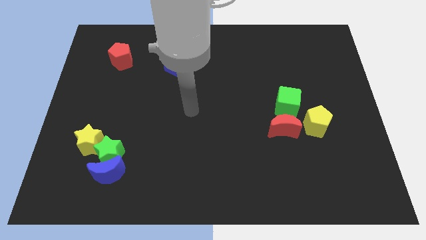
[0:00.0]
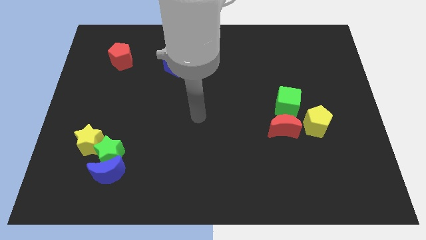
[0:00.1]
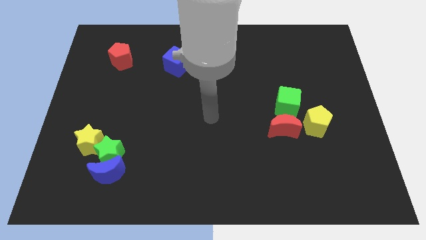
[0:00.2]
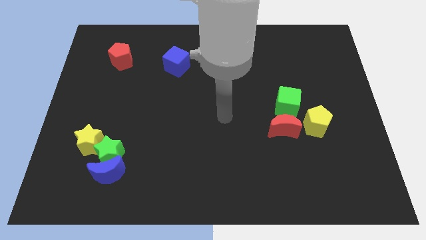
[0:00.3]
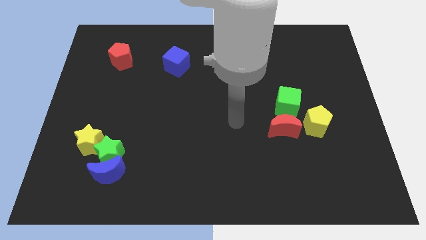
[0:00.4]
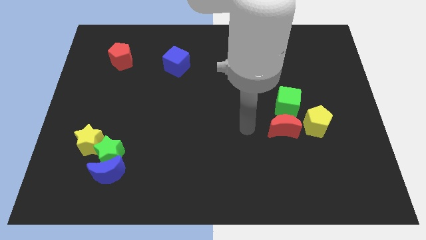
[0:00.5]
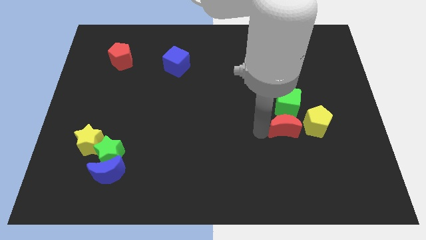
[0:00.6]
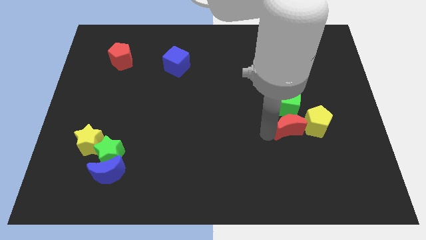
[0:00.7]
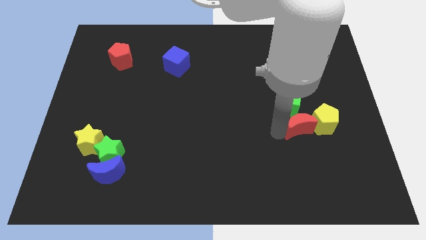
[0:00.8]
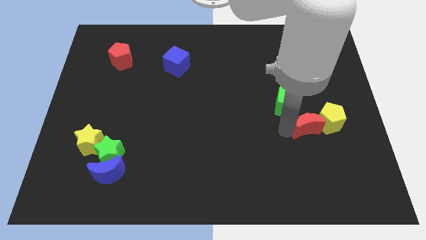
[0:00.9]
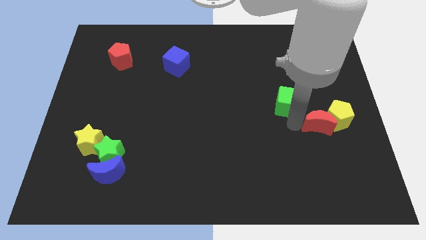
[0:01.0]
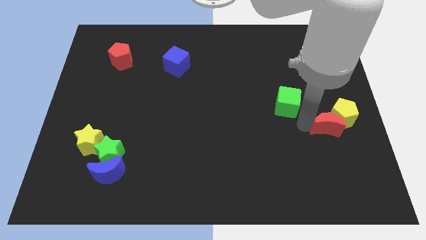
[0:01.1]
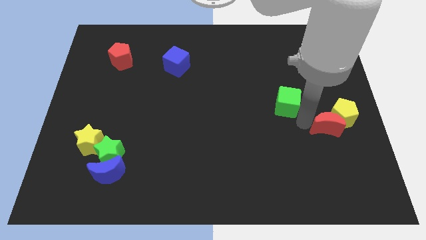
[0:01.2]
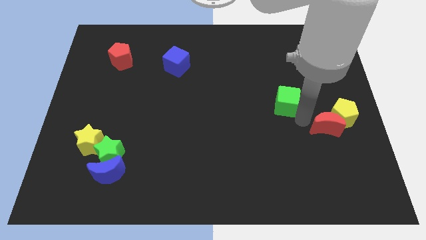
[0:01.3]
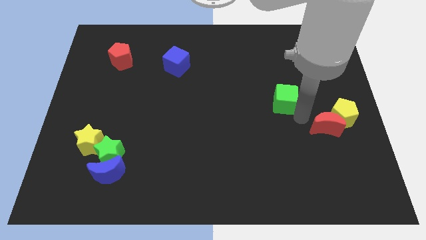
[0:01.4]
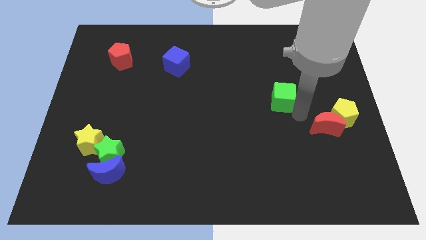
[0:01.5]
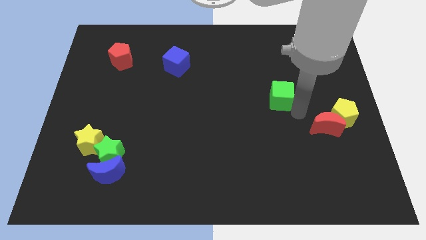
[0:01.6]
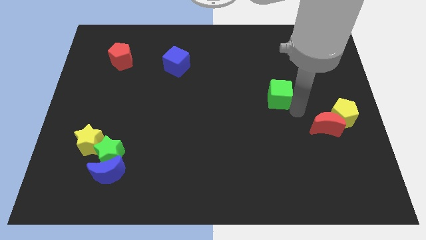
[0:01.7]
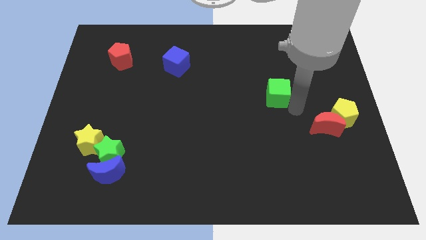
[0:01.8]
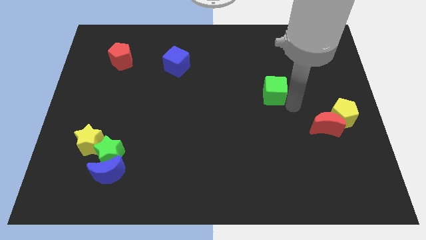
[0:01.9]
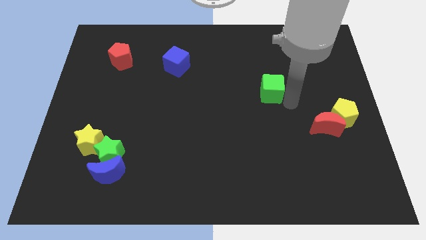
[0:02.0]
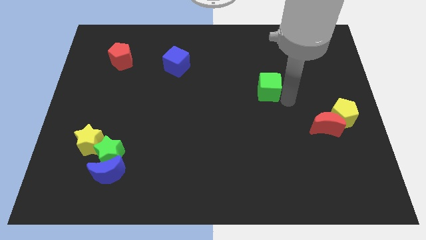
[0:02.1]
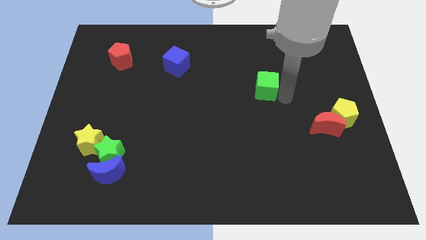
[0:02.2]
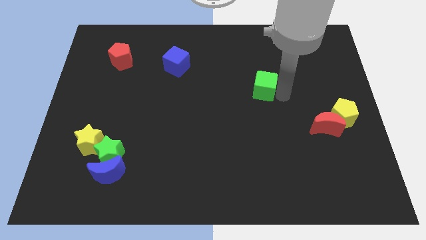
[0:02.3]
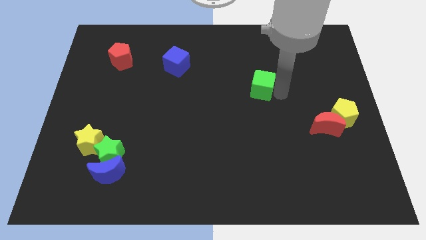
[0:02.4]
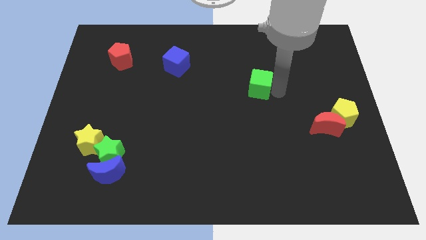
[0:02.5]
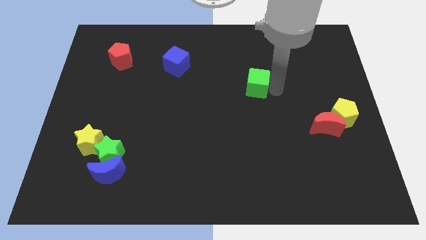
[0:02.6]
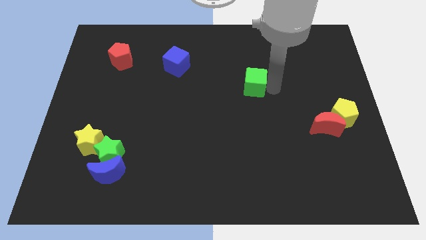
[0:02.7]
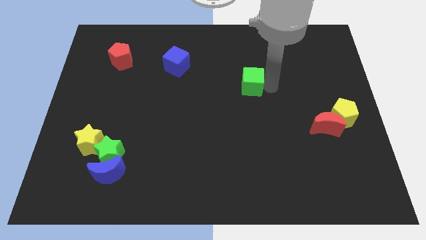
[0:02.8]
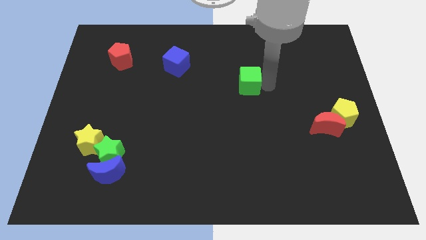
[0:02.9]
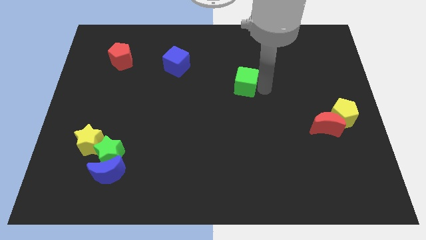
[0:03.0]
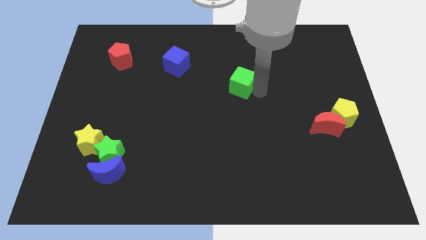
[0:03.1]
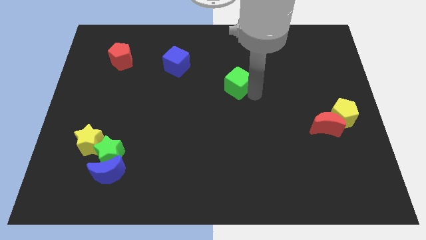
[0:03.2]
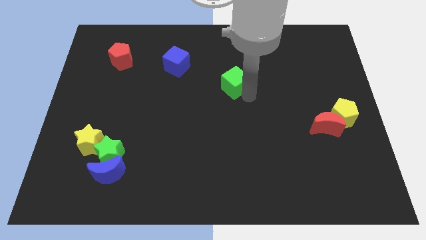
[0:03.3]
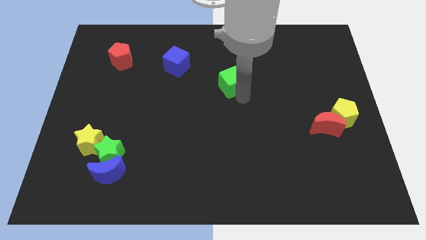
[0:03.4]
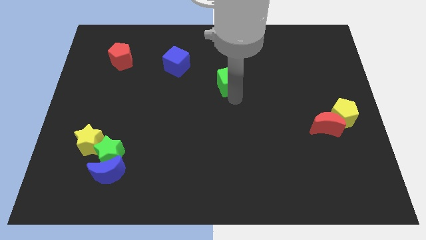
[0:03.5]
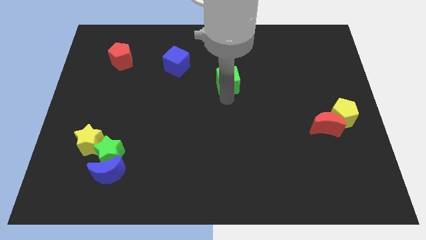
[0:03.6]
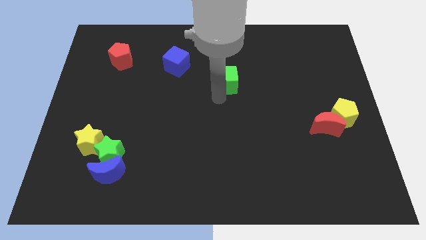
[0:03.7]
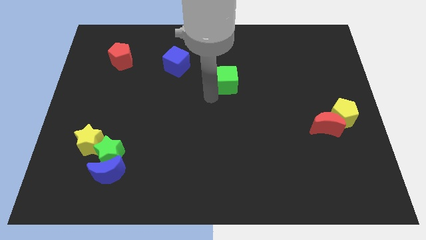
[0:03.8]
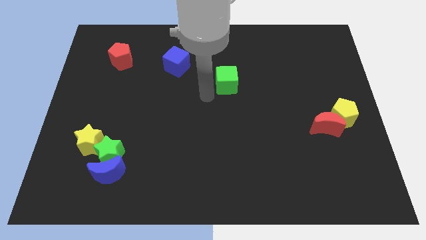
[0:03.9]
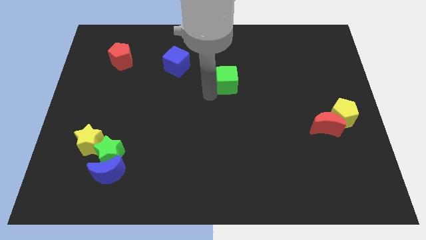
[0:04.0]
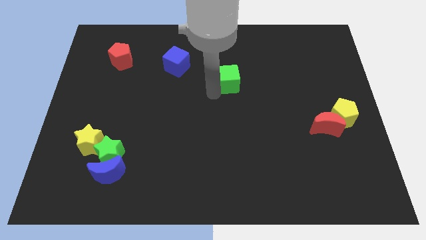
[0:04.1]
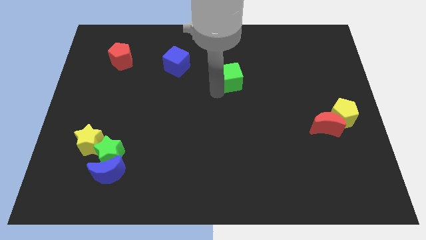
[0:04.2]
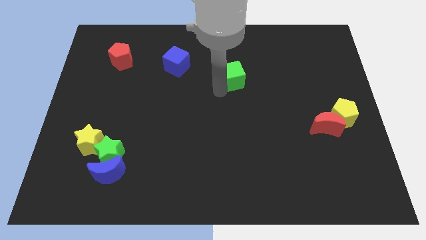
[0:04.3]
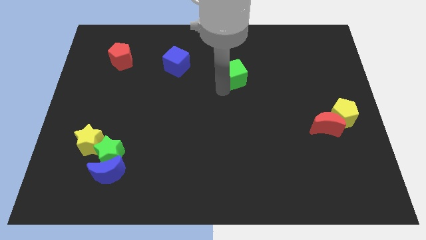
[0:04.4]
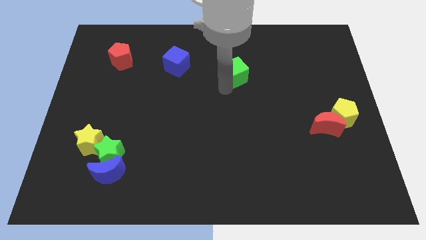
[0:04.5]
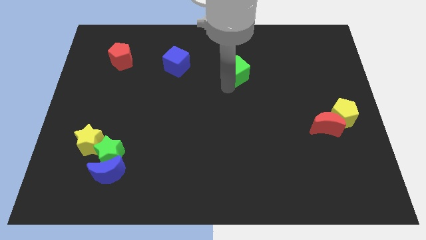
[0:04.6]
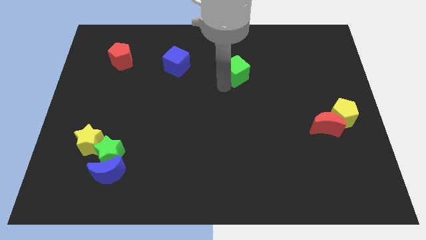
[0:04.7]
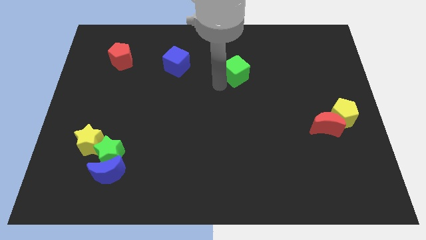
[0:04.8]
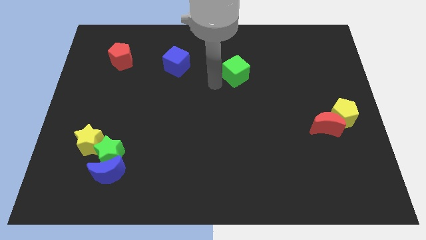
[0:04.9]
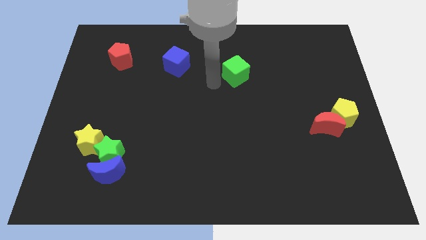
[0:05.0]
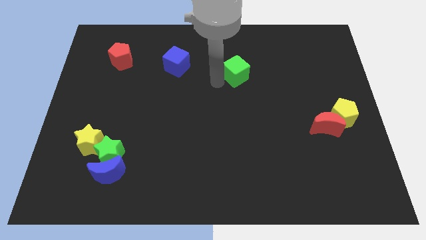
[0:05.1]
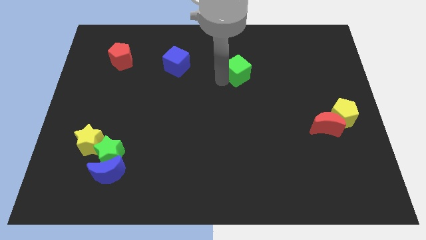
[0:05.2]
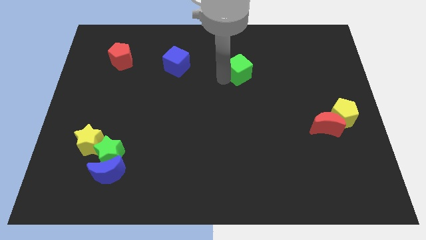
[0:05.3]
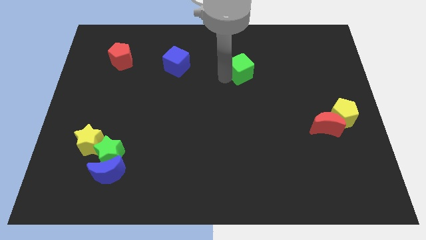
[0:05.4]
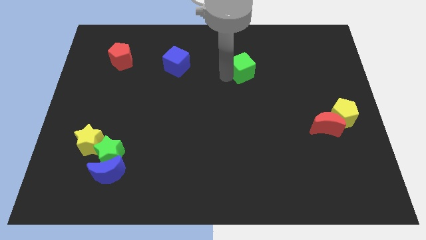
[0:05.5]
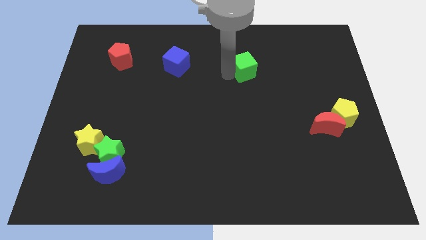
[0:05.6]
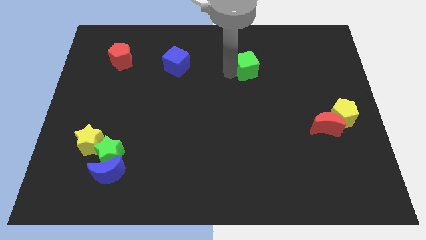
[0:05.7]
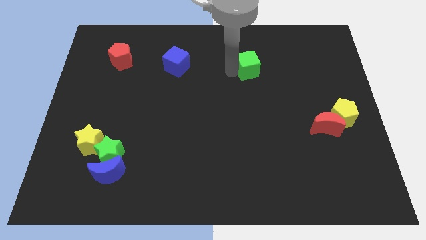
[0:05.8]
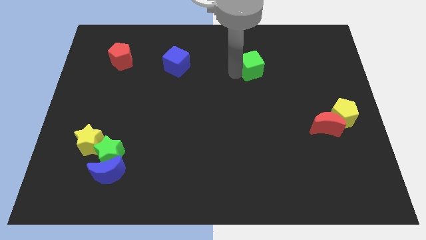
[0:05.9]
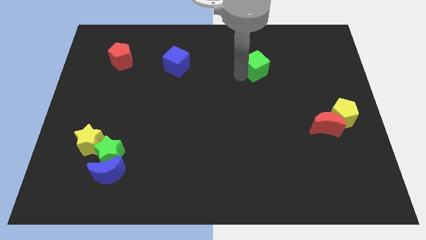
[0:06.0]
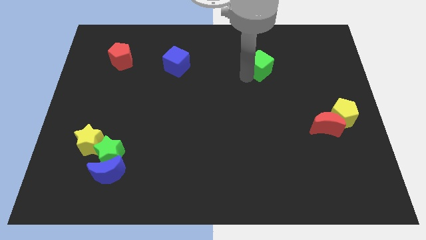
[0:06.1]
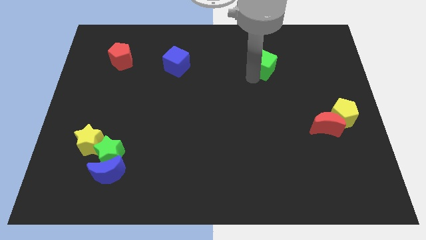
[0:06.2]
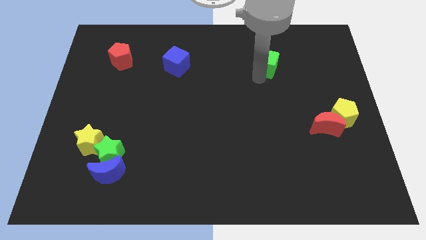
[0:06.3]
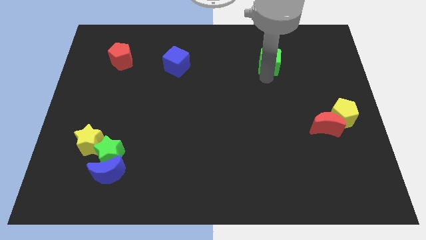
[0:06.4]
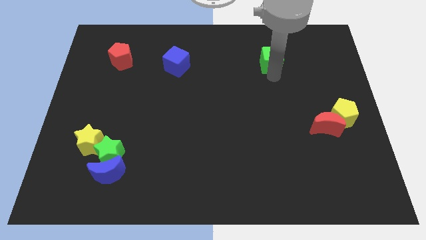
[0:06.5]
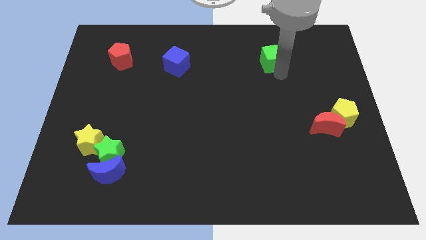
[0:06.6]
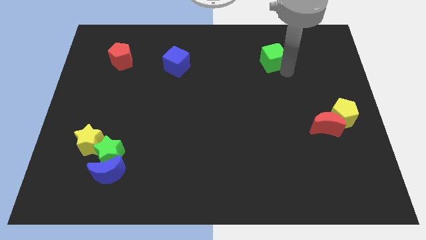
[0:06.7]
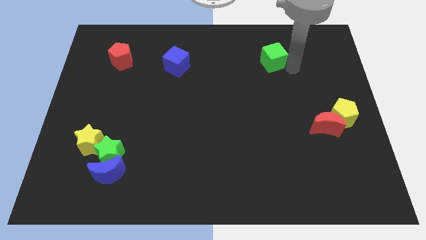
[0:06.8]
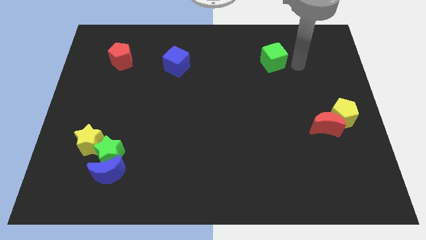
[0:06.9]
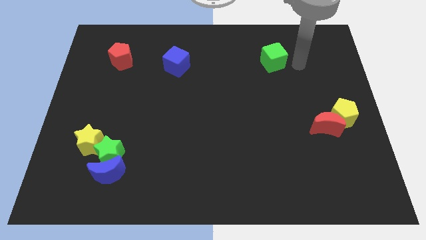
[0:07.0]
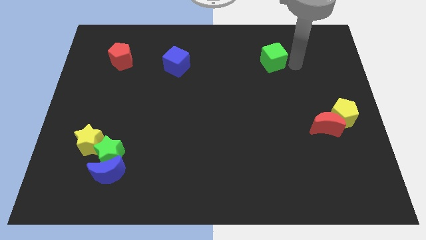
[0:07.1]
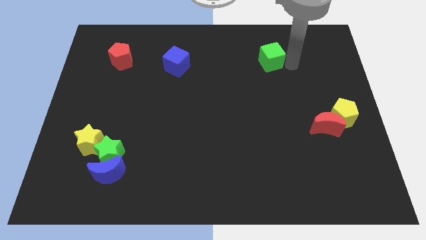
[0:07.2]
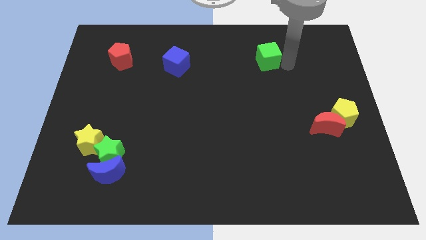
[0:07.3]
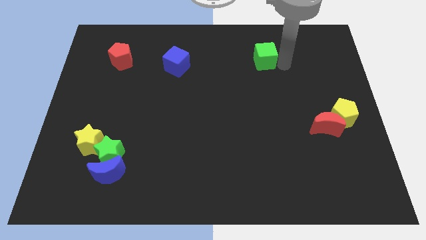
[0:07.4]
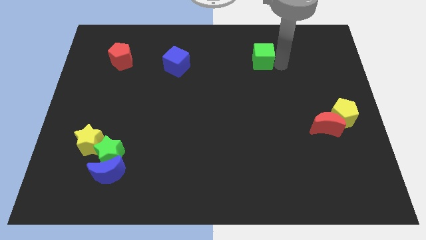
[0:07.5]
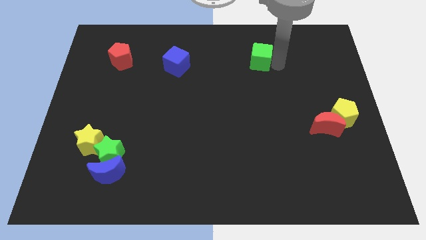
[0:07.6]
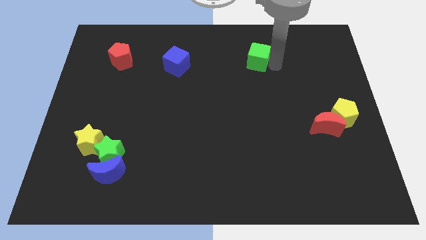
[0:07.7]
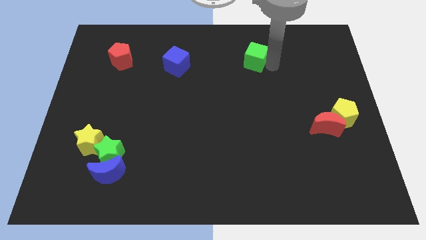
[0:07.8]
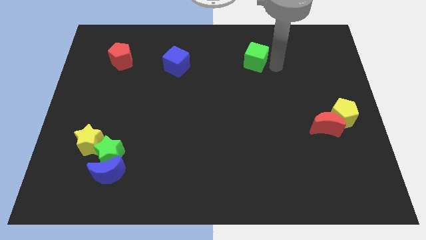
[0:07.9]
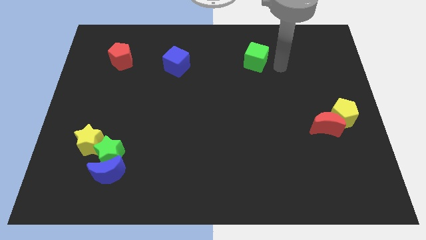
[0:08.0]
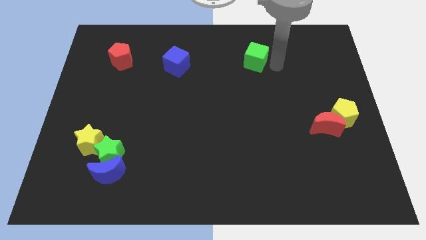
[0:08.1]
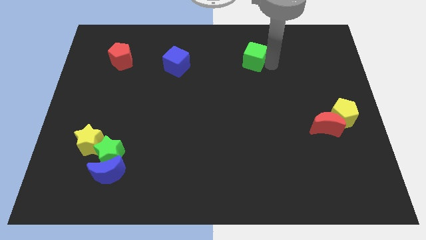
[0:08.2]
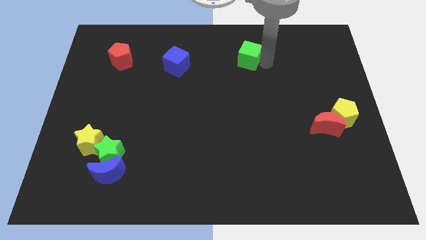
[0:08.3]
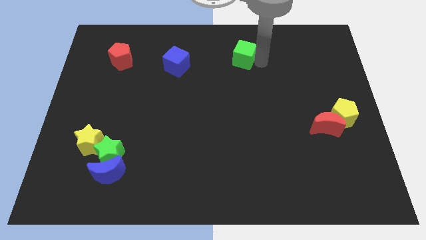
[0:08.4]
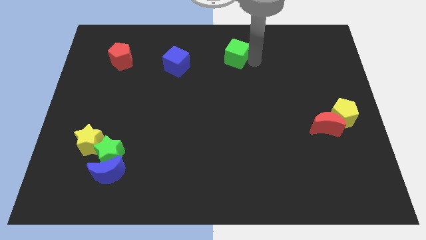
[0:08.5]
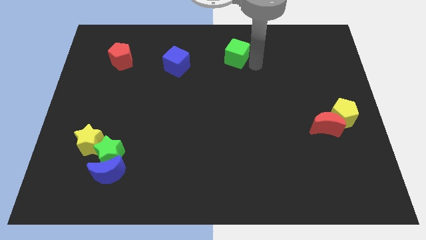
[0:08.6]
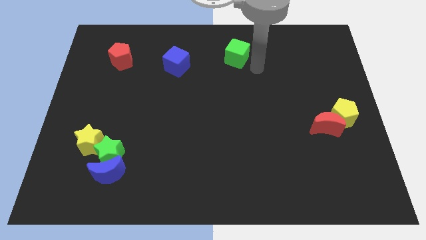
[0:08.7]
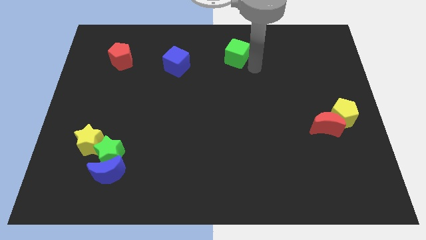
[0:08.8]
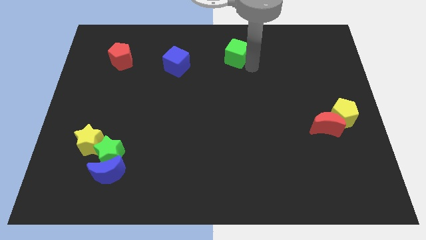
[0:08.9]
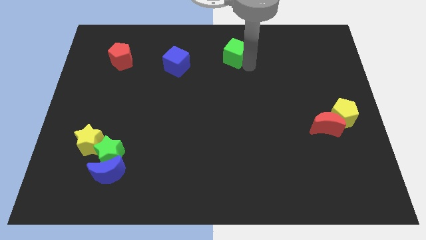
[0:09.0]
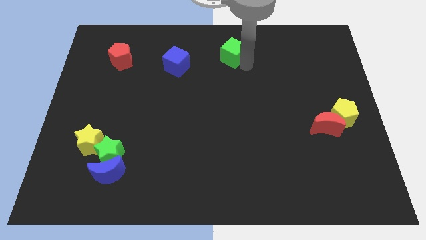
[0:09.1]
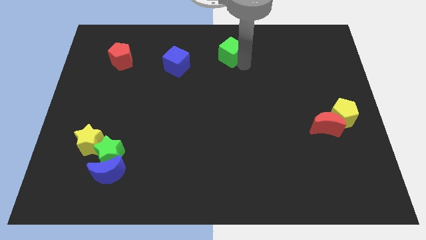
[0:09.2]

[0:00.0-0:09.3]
slide the green cube to the top side
